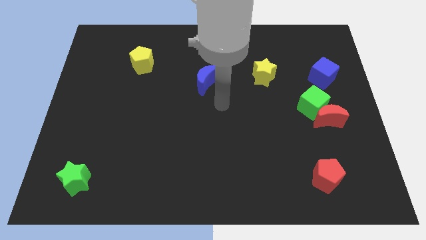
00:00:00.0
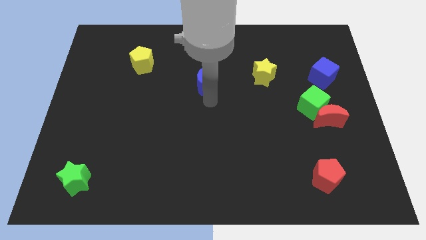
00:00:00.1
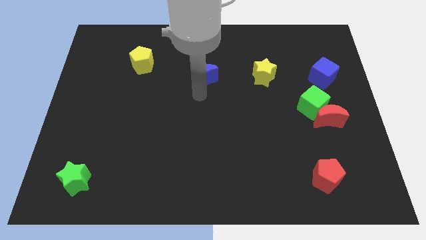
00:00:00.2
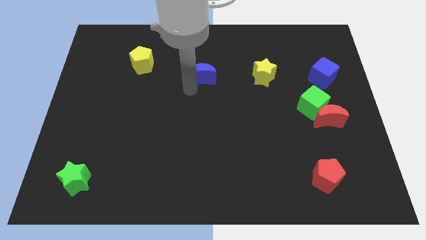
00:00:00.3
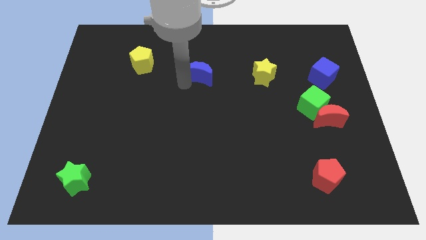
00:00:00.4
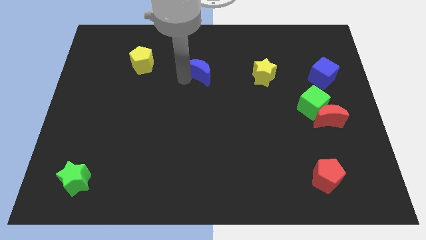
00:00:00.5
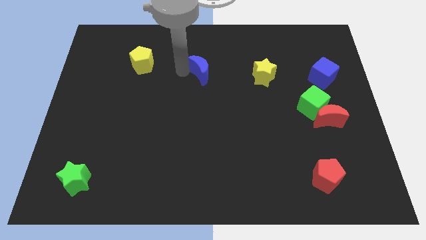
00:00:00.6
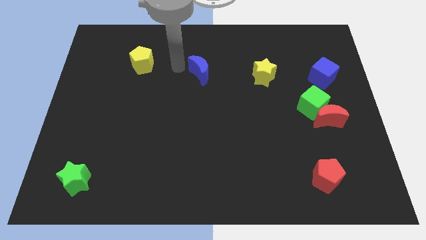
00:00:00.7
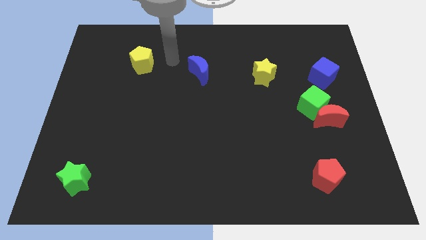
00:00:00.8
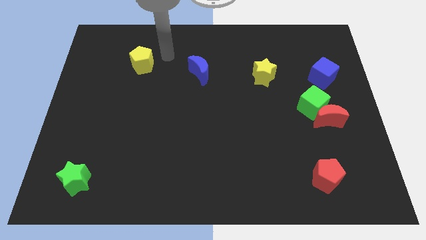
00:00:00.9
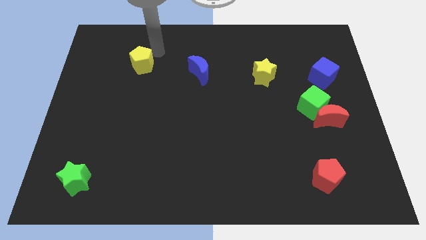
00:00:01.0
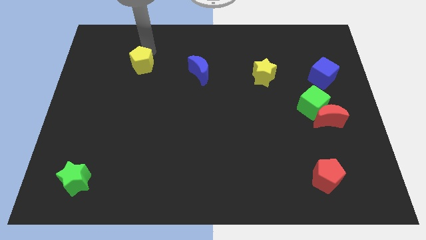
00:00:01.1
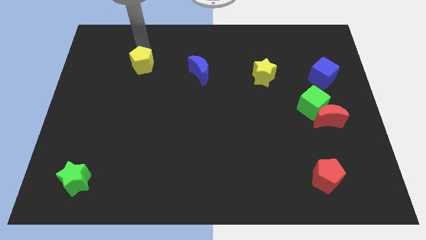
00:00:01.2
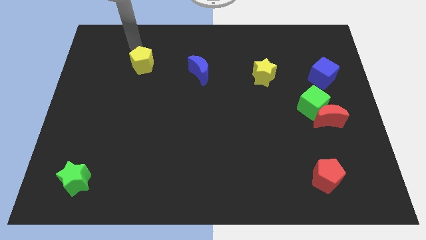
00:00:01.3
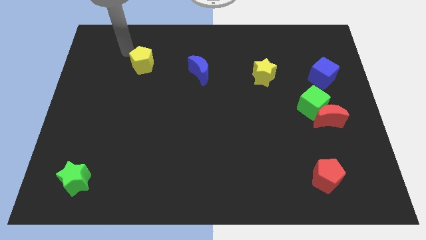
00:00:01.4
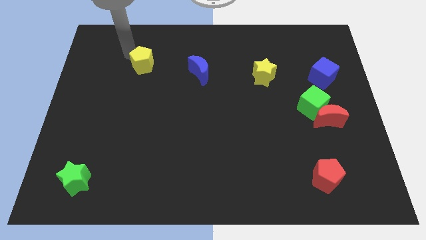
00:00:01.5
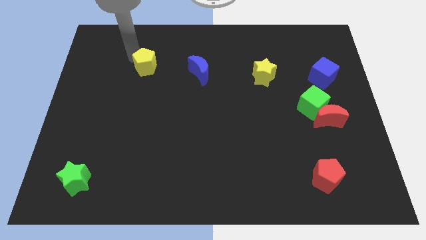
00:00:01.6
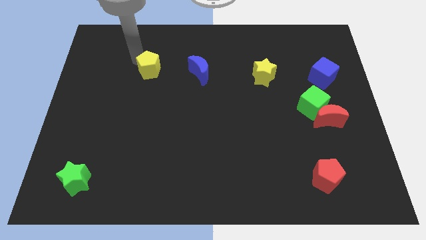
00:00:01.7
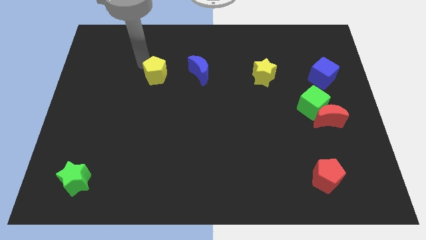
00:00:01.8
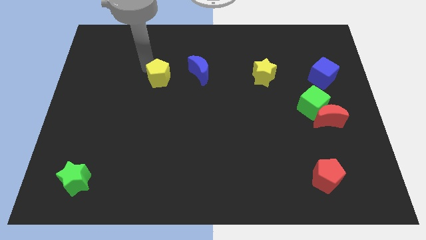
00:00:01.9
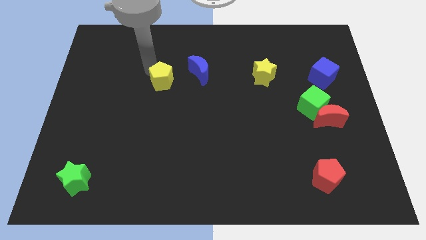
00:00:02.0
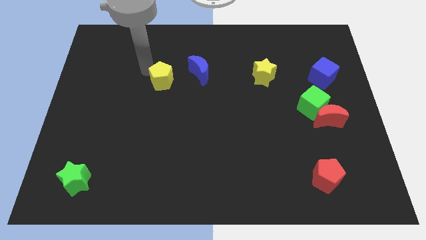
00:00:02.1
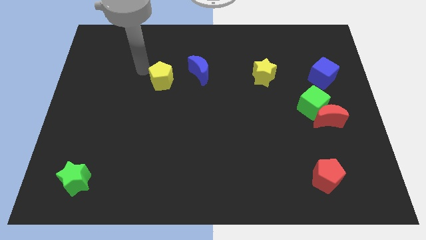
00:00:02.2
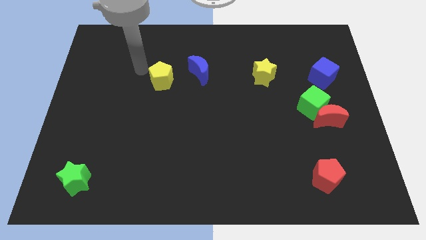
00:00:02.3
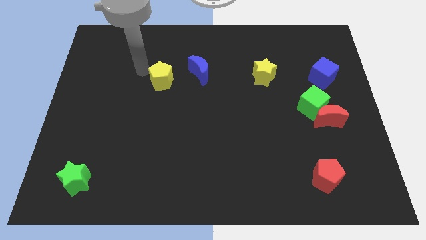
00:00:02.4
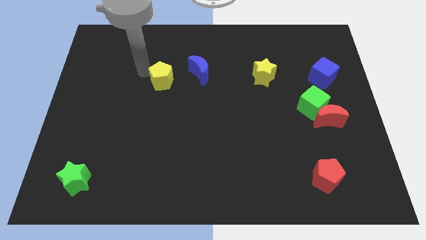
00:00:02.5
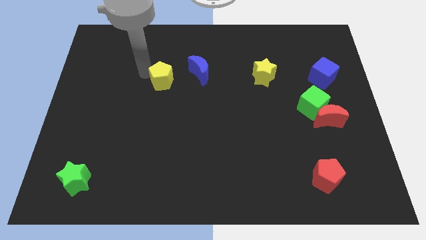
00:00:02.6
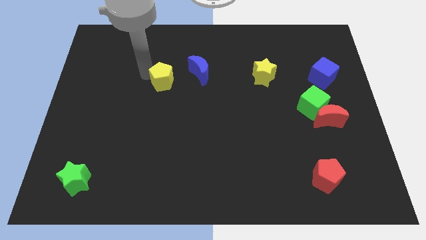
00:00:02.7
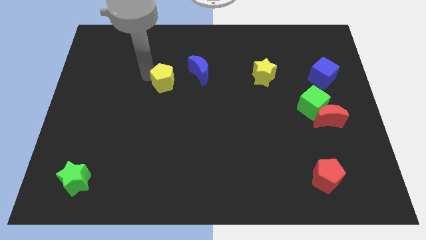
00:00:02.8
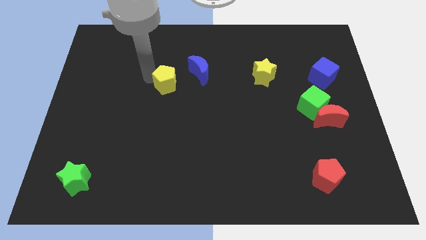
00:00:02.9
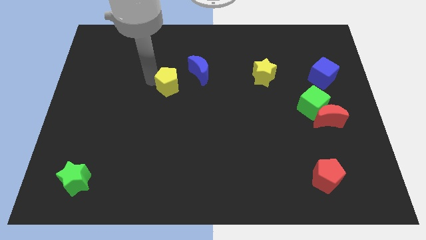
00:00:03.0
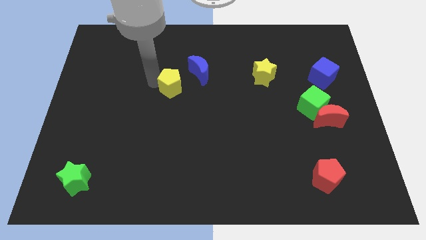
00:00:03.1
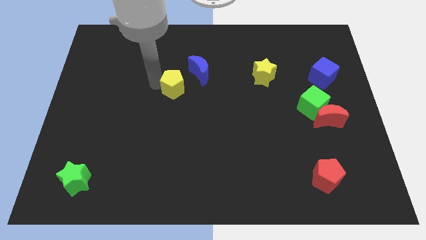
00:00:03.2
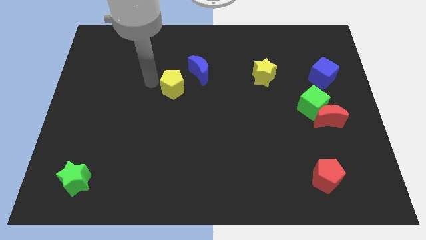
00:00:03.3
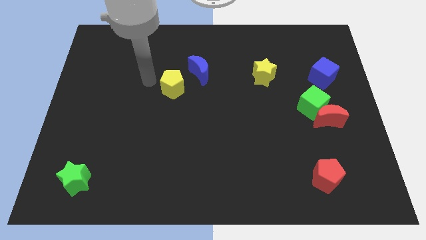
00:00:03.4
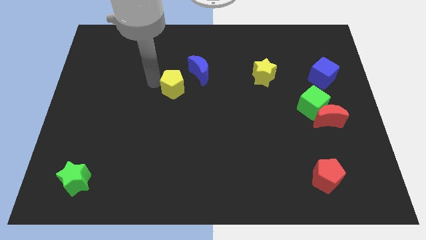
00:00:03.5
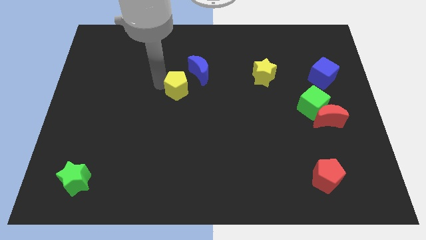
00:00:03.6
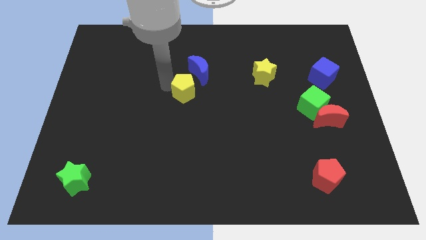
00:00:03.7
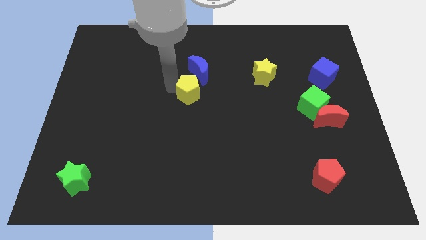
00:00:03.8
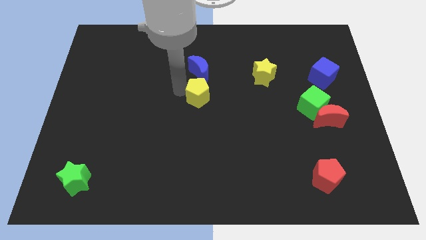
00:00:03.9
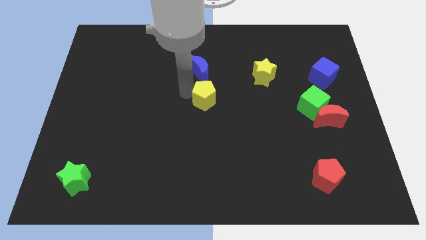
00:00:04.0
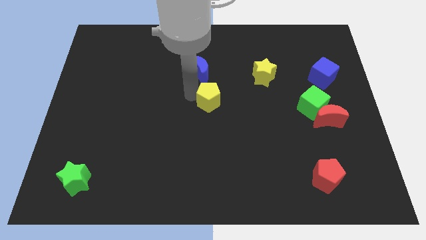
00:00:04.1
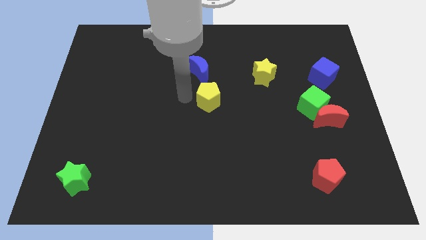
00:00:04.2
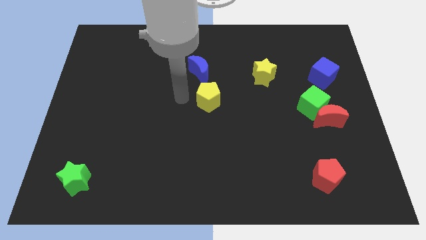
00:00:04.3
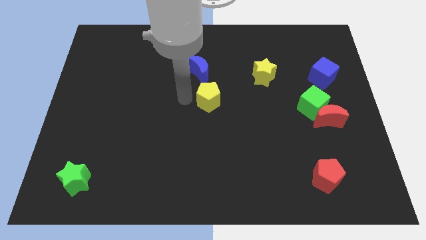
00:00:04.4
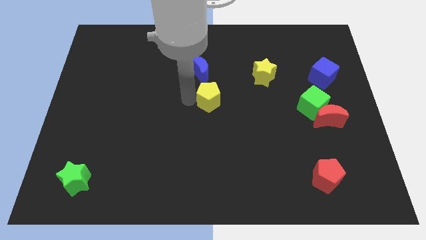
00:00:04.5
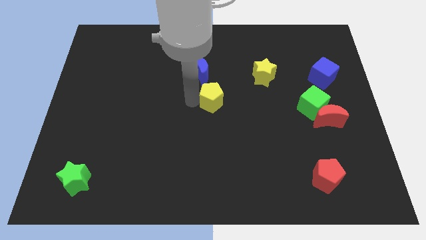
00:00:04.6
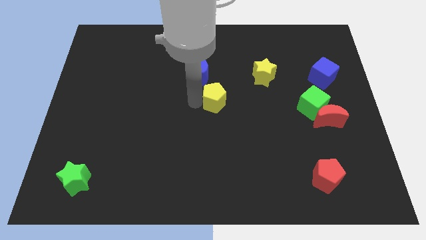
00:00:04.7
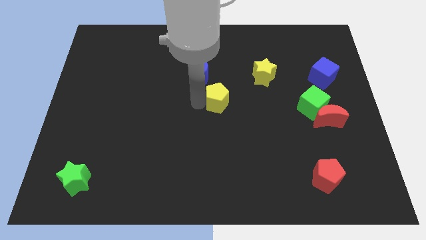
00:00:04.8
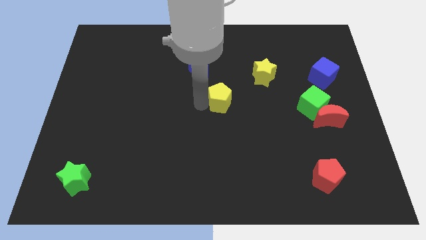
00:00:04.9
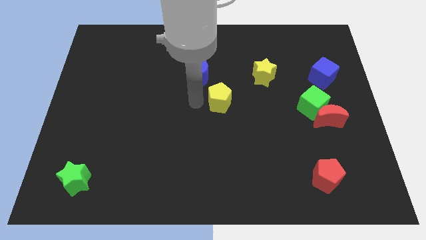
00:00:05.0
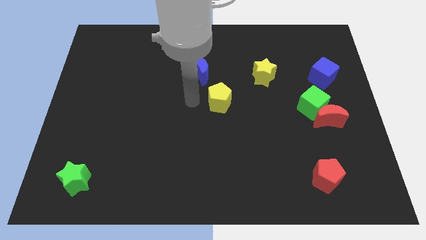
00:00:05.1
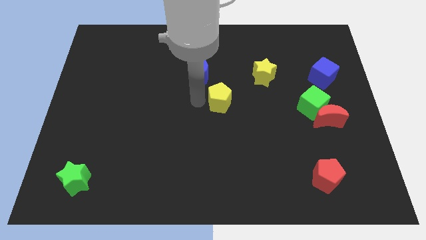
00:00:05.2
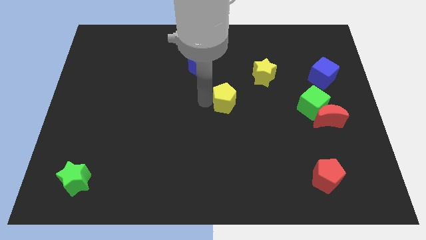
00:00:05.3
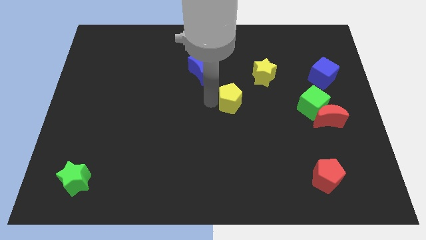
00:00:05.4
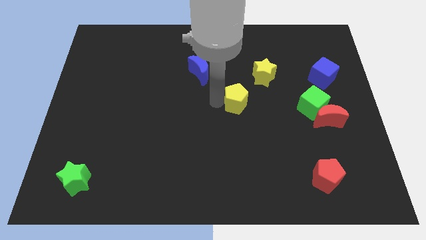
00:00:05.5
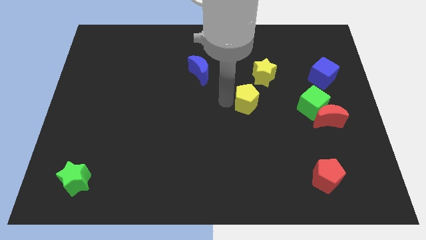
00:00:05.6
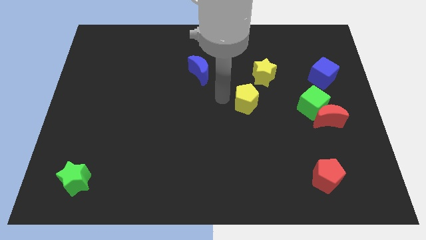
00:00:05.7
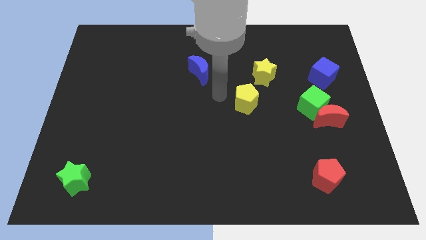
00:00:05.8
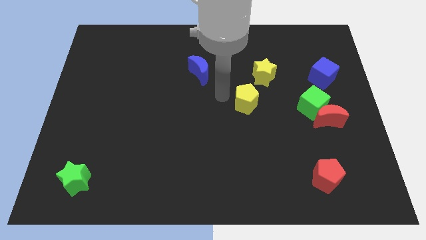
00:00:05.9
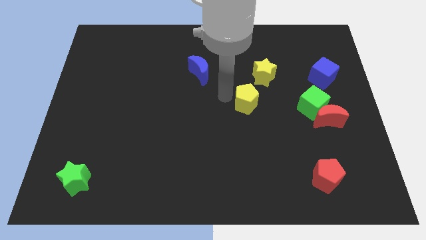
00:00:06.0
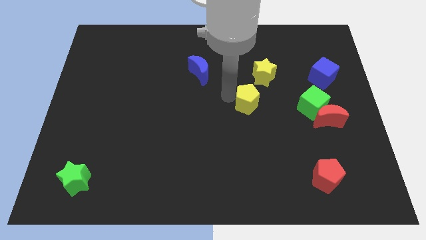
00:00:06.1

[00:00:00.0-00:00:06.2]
slide the yellow pentagon to the bottom side of the yellow star

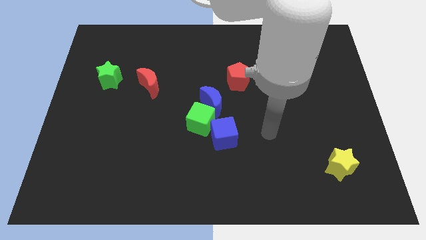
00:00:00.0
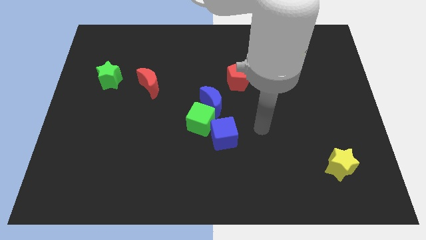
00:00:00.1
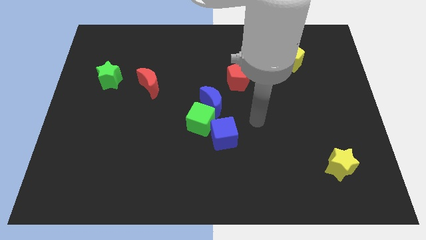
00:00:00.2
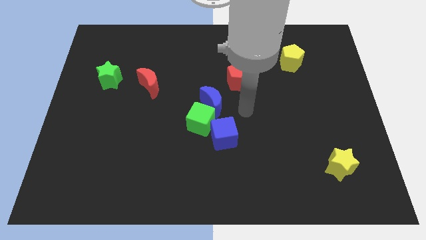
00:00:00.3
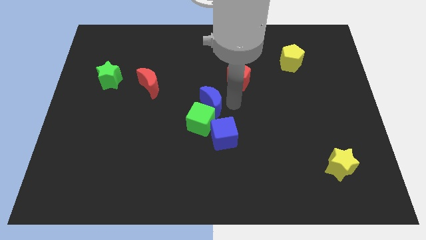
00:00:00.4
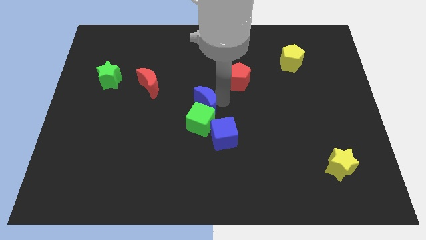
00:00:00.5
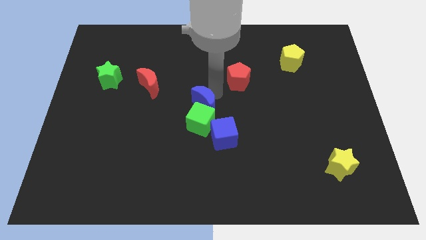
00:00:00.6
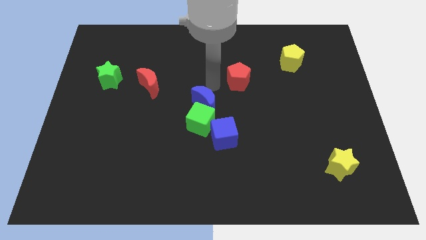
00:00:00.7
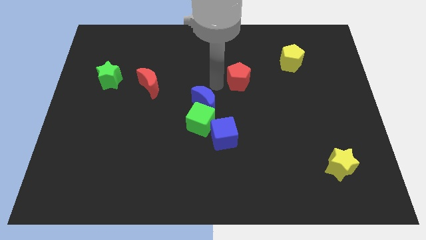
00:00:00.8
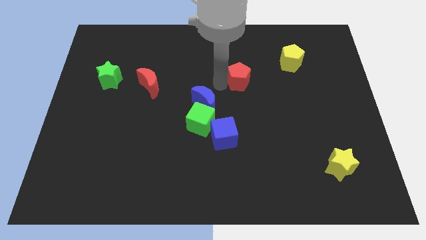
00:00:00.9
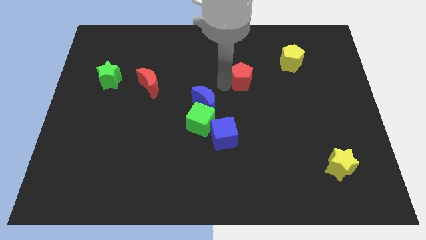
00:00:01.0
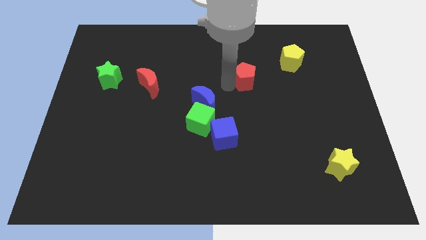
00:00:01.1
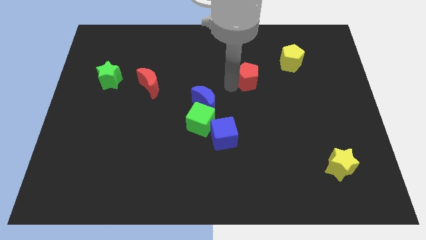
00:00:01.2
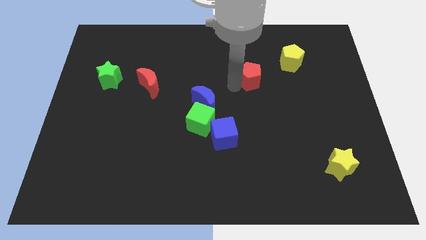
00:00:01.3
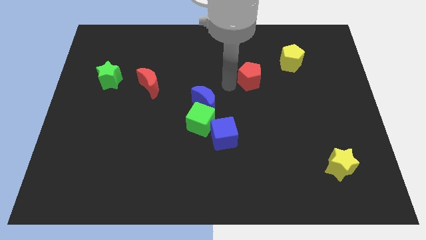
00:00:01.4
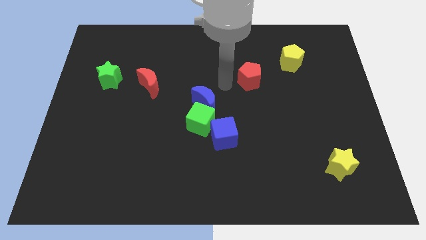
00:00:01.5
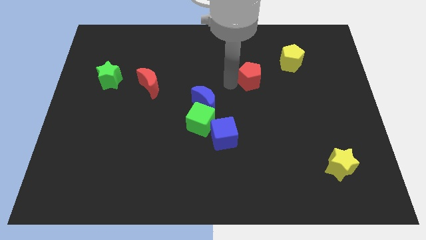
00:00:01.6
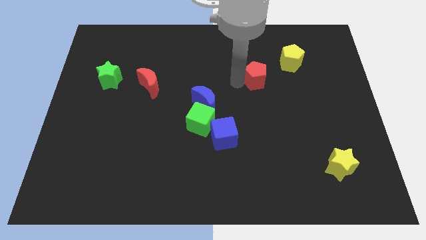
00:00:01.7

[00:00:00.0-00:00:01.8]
push the red pentagon to the bottom left of the yellow pentagon
